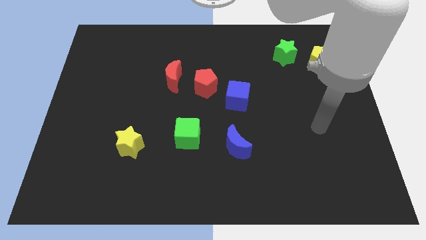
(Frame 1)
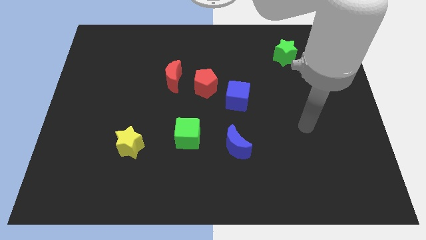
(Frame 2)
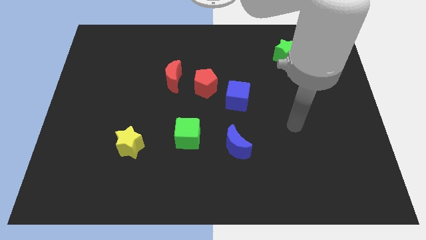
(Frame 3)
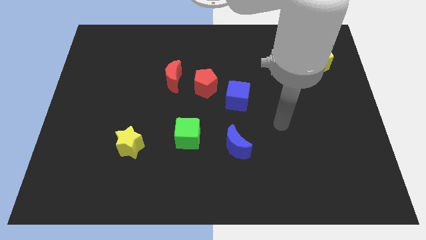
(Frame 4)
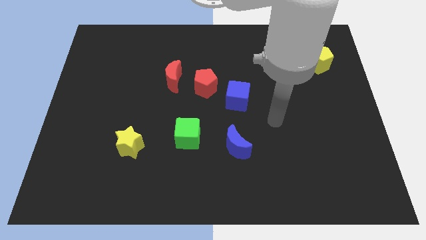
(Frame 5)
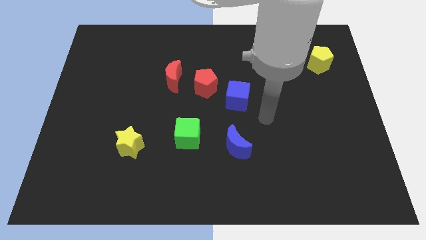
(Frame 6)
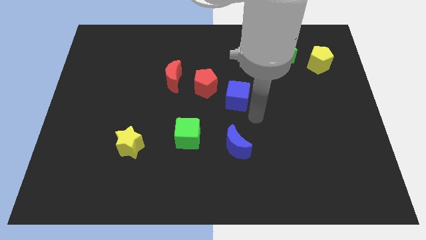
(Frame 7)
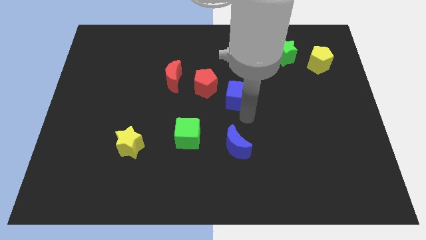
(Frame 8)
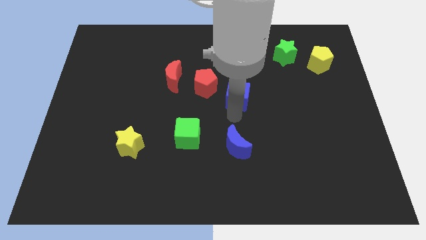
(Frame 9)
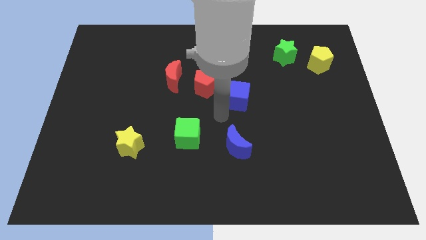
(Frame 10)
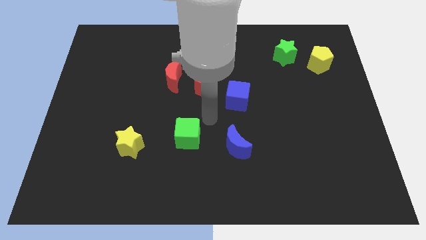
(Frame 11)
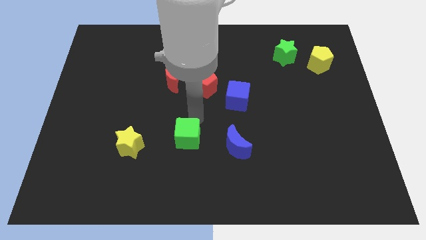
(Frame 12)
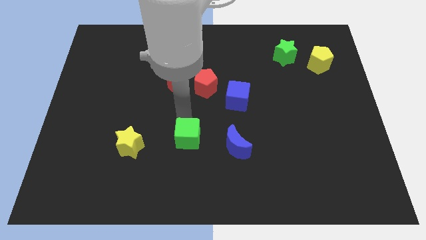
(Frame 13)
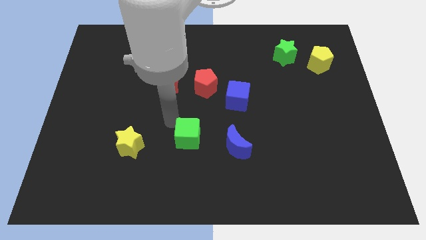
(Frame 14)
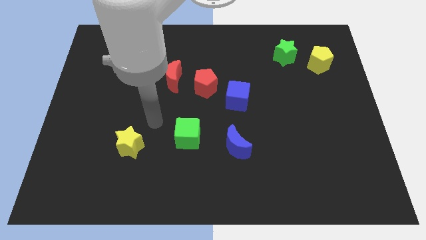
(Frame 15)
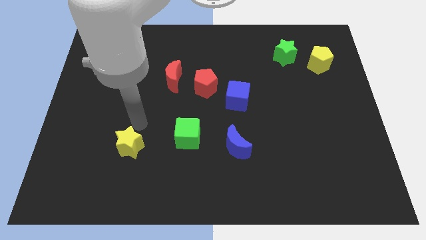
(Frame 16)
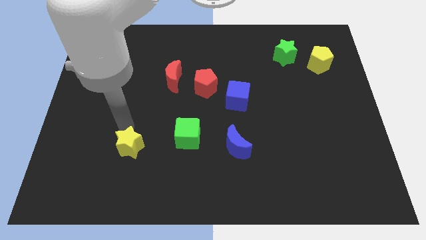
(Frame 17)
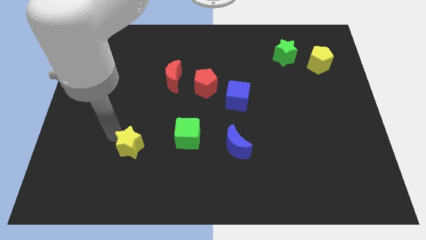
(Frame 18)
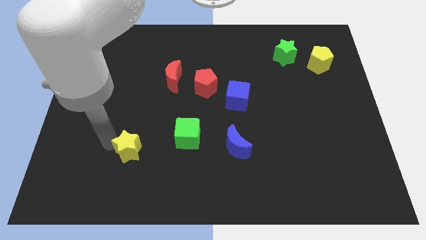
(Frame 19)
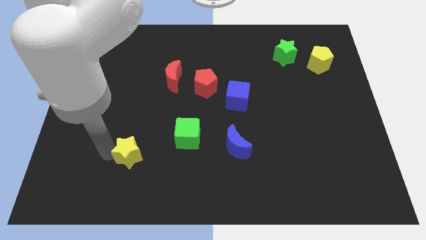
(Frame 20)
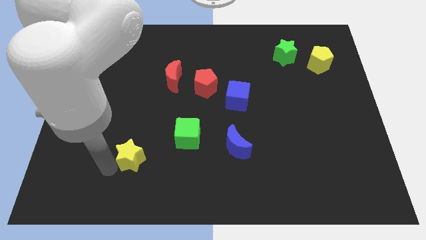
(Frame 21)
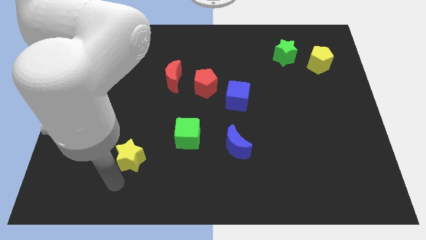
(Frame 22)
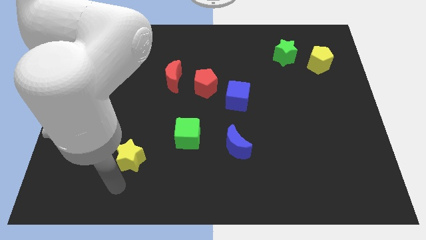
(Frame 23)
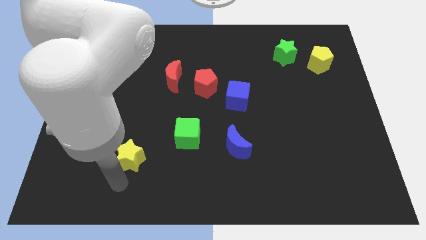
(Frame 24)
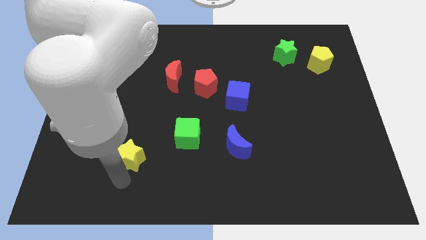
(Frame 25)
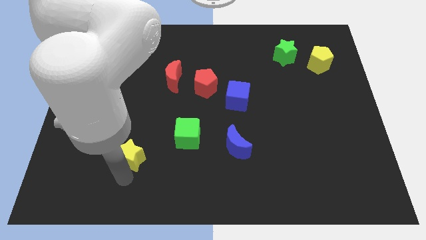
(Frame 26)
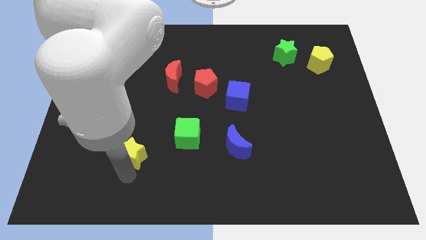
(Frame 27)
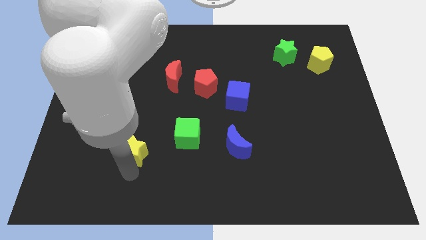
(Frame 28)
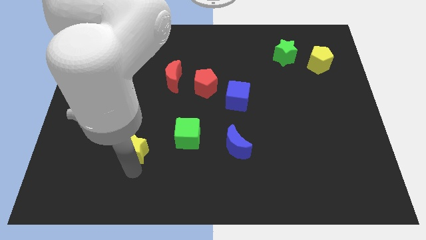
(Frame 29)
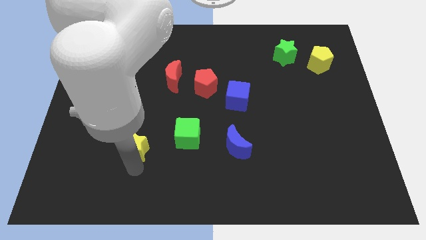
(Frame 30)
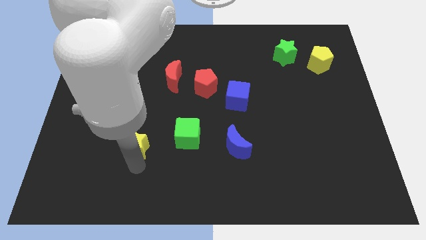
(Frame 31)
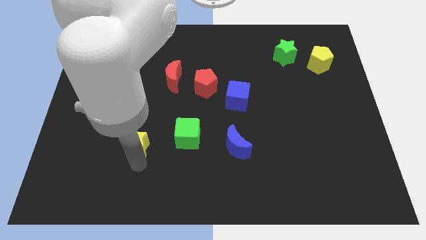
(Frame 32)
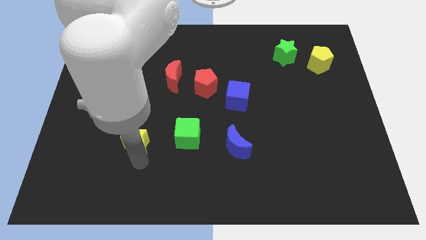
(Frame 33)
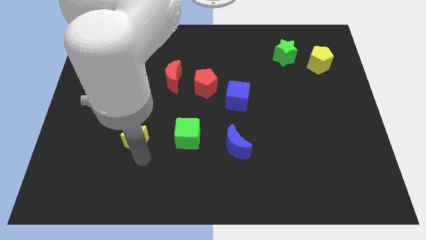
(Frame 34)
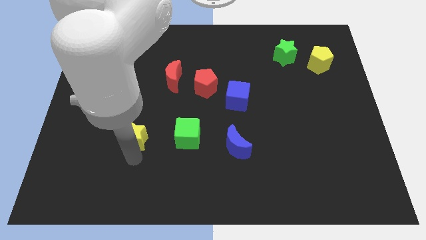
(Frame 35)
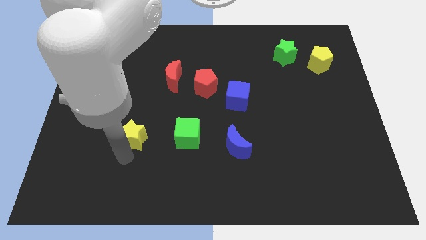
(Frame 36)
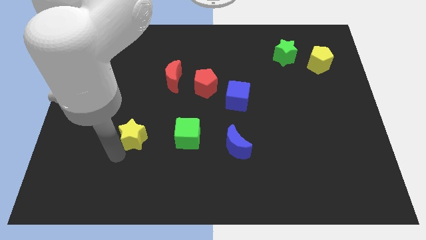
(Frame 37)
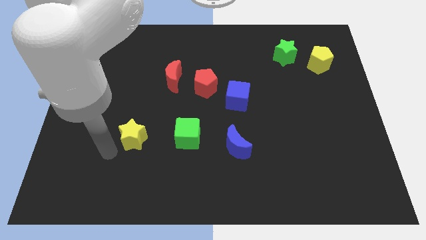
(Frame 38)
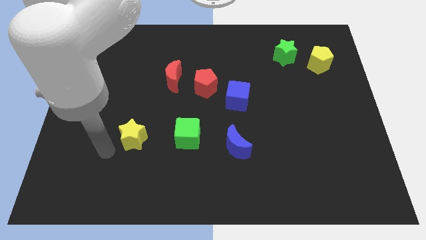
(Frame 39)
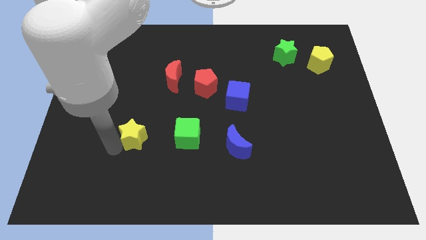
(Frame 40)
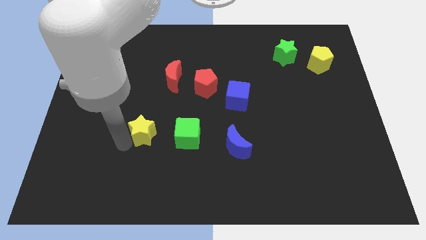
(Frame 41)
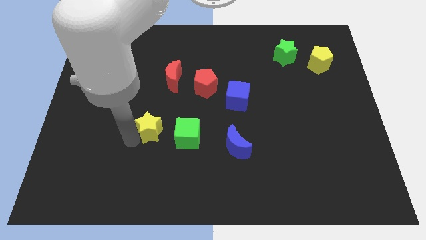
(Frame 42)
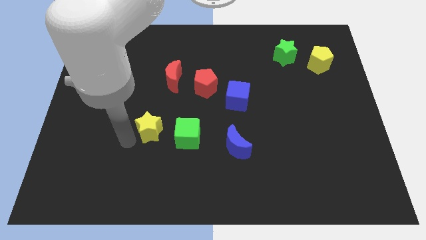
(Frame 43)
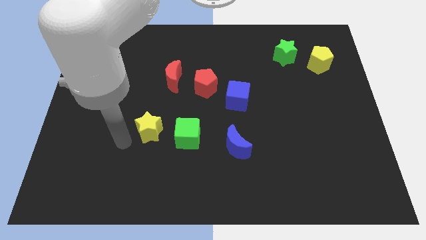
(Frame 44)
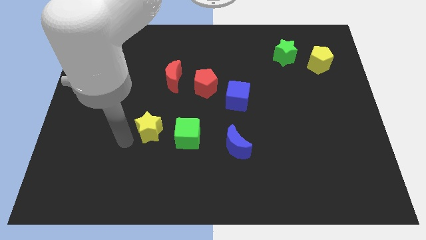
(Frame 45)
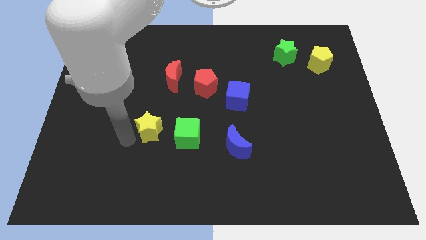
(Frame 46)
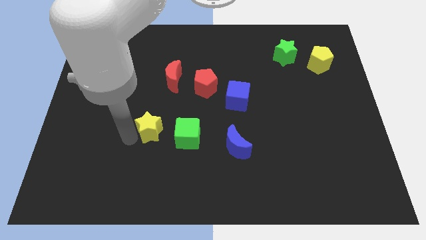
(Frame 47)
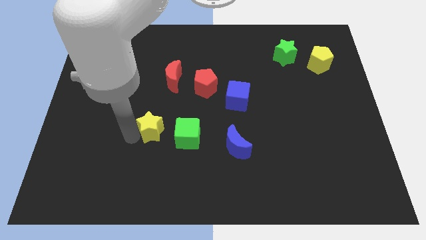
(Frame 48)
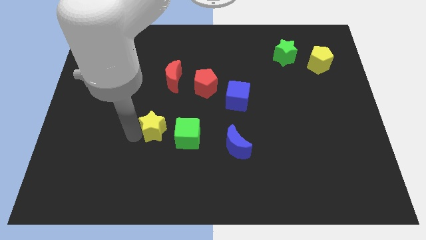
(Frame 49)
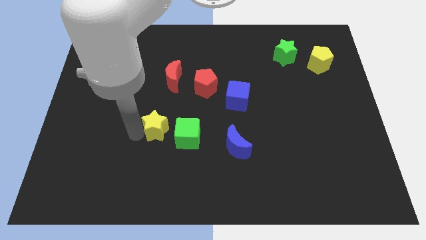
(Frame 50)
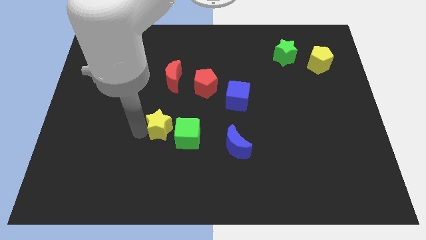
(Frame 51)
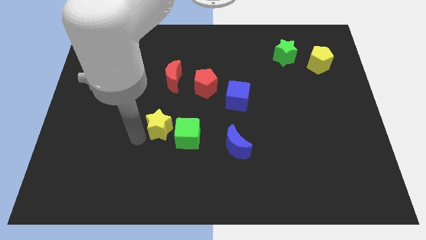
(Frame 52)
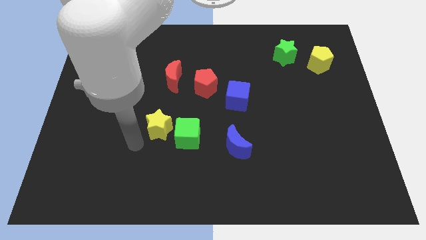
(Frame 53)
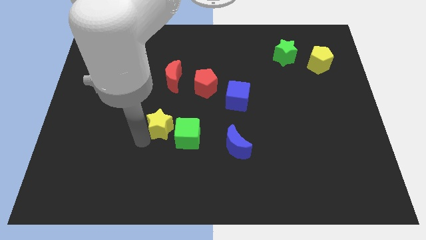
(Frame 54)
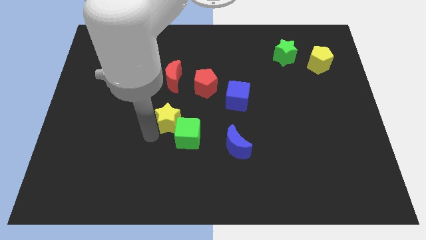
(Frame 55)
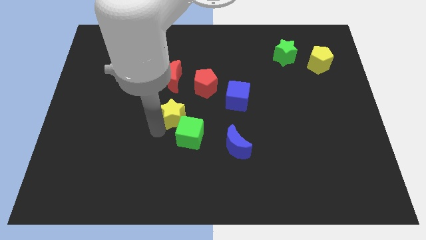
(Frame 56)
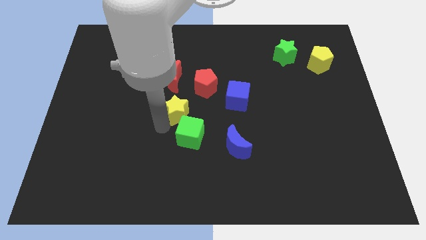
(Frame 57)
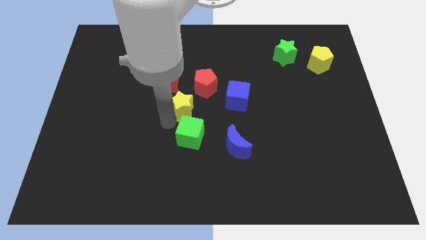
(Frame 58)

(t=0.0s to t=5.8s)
put the yellow star left of the blue cube

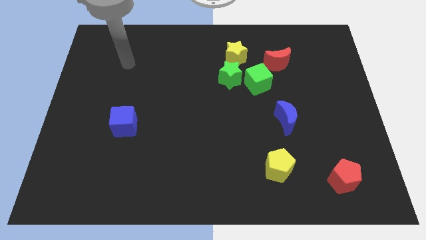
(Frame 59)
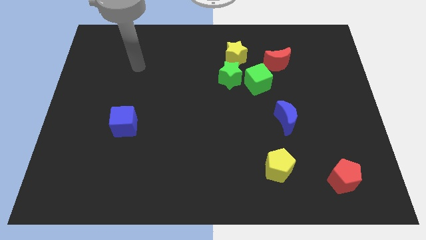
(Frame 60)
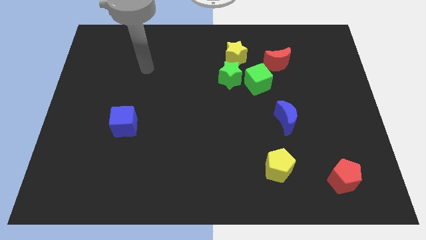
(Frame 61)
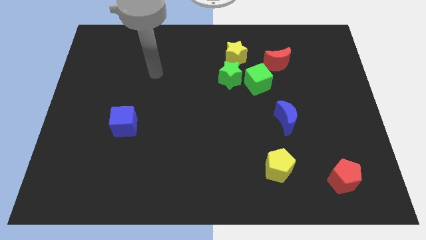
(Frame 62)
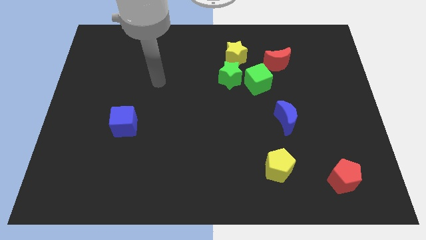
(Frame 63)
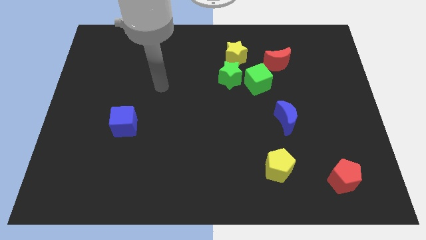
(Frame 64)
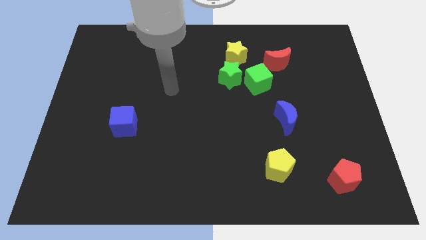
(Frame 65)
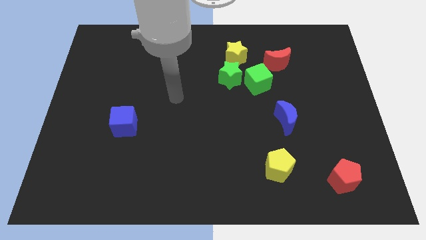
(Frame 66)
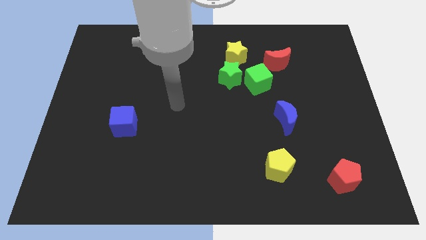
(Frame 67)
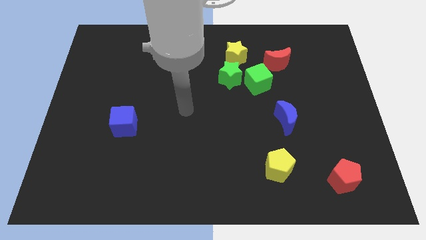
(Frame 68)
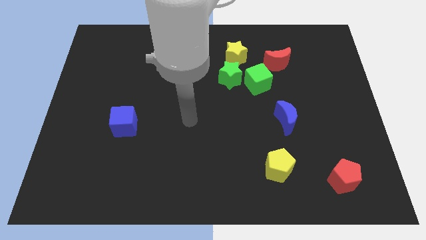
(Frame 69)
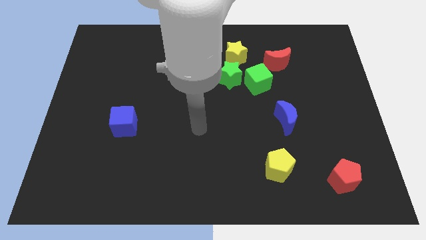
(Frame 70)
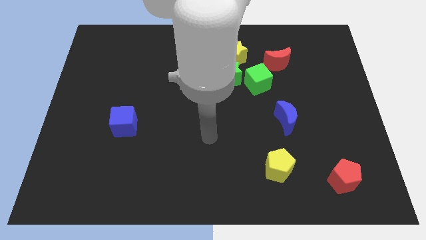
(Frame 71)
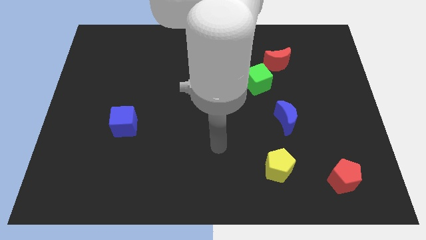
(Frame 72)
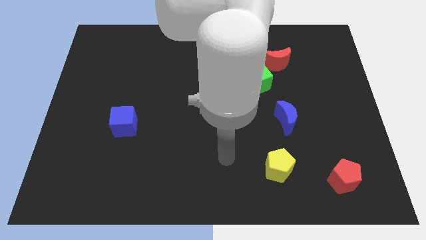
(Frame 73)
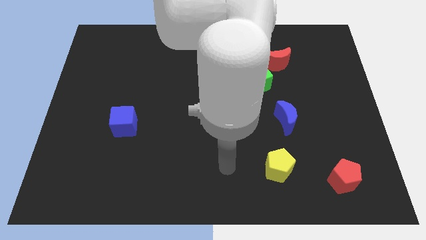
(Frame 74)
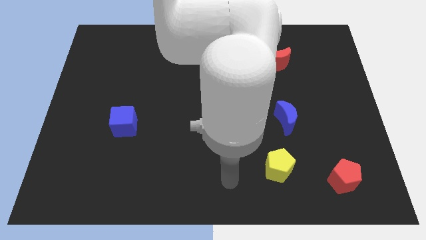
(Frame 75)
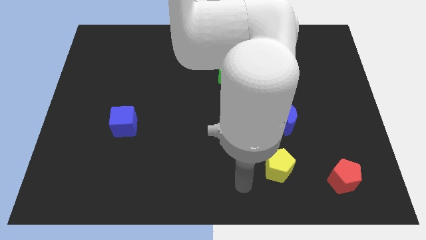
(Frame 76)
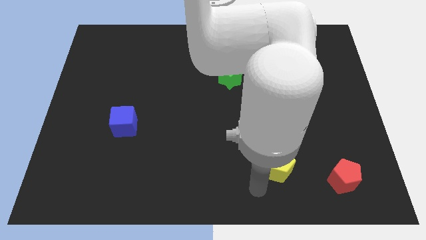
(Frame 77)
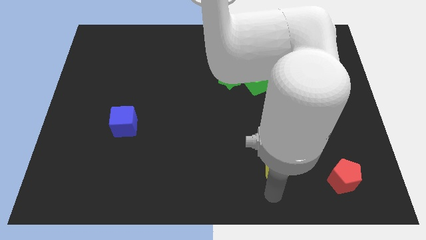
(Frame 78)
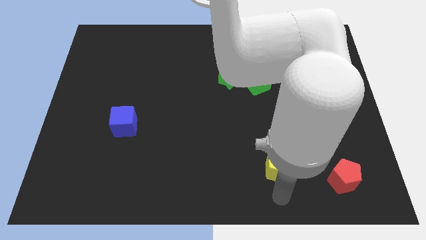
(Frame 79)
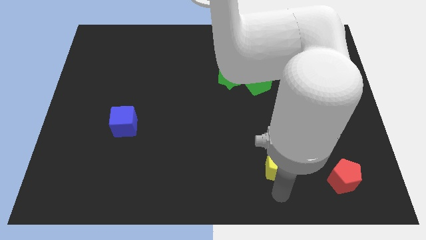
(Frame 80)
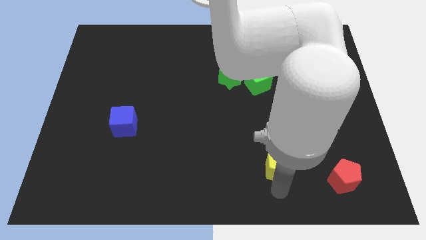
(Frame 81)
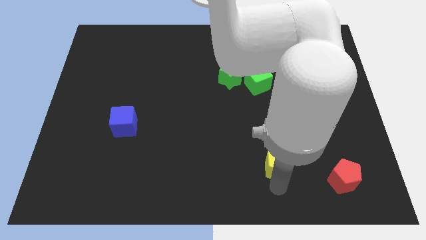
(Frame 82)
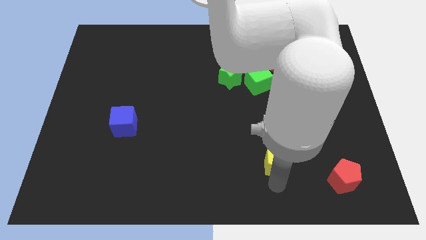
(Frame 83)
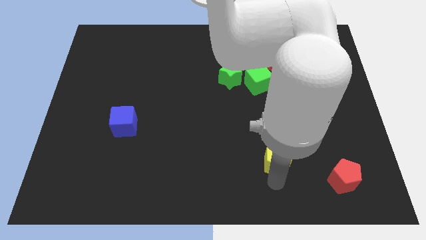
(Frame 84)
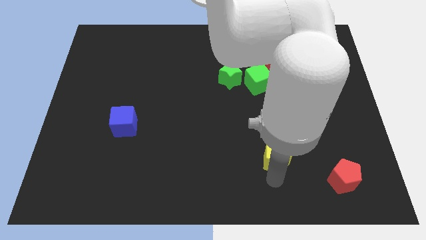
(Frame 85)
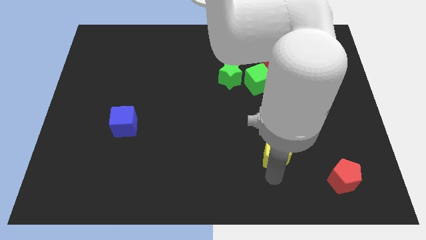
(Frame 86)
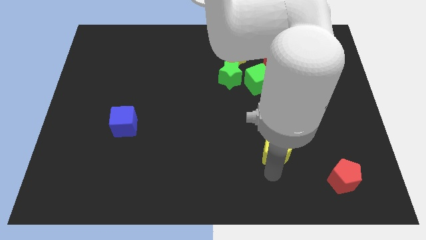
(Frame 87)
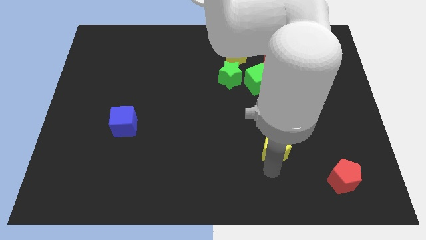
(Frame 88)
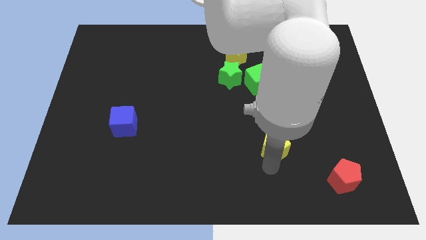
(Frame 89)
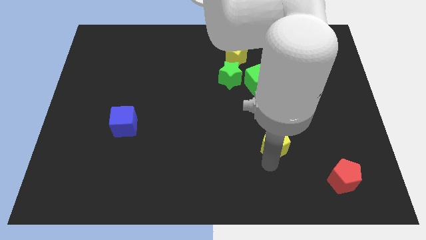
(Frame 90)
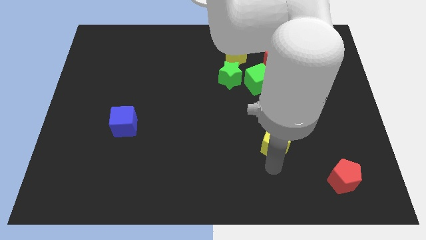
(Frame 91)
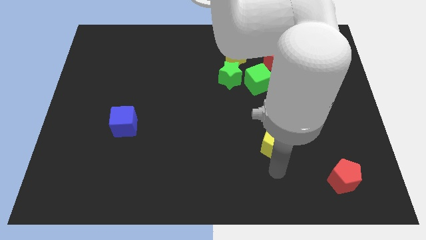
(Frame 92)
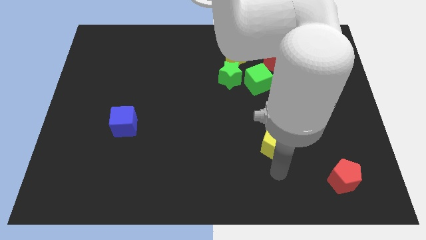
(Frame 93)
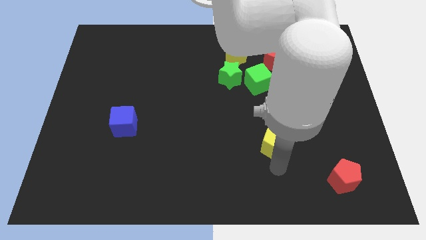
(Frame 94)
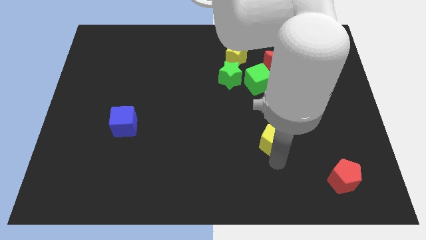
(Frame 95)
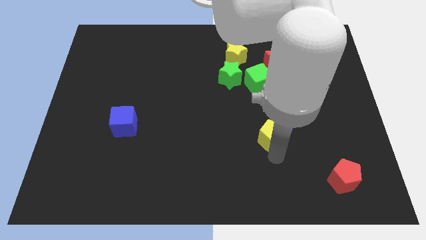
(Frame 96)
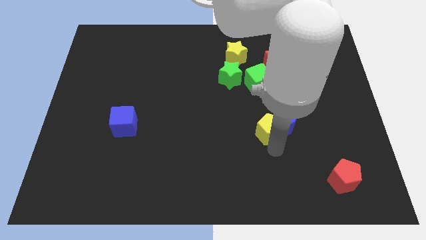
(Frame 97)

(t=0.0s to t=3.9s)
put the yellow pentagon below the green cube
